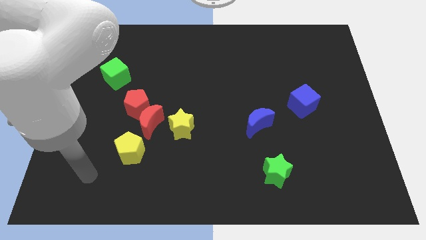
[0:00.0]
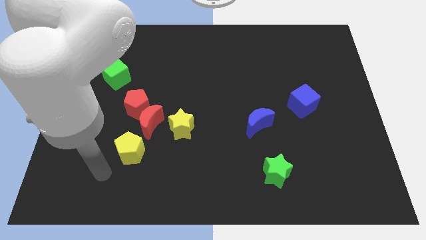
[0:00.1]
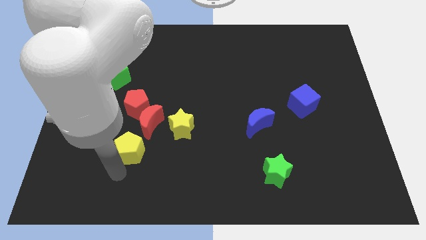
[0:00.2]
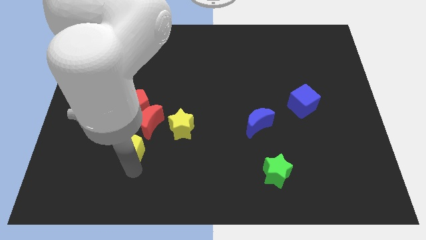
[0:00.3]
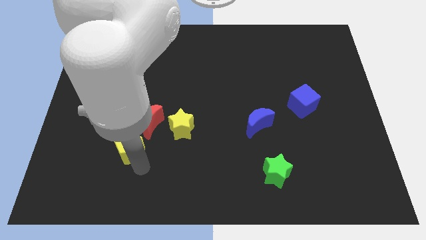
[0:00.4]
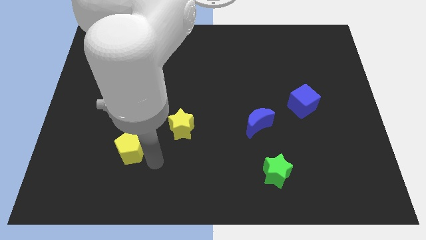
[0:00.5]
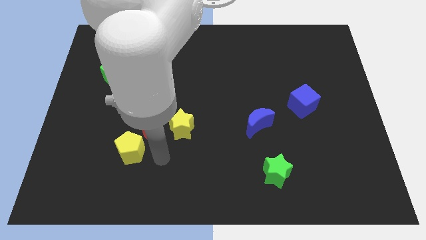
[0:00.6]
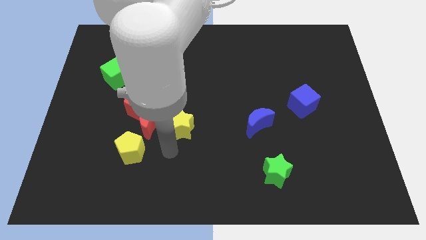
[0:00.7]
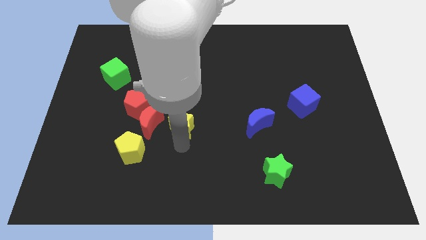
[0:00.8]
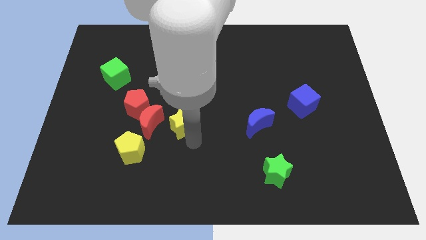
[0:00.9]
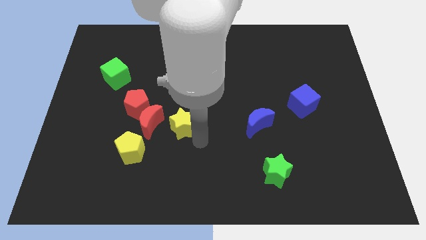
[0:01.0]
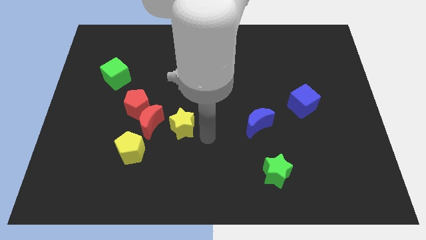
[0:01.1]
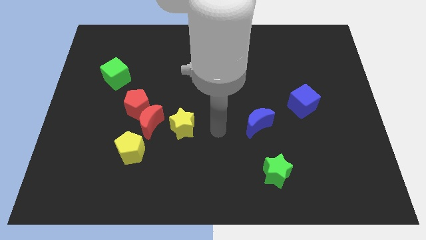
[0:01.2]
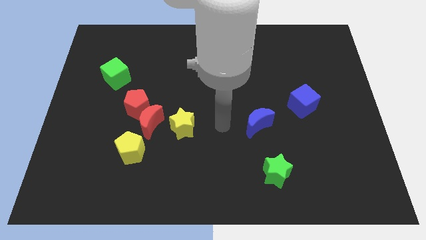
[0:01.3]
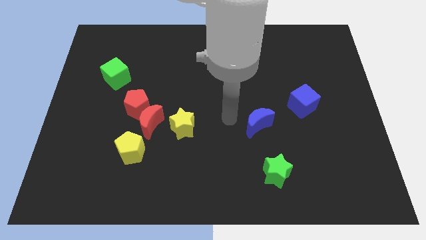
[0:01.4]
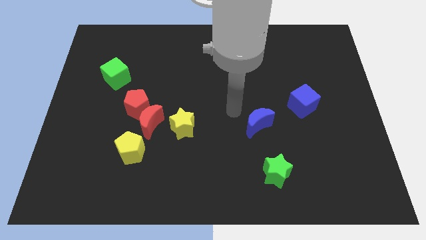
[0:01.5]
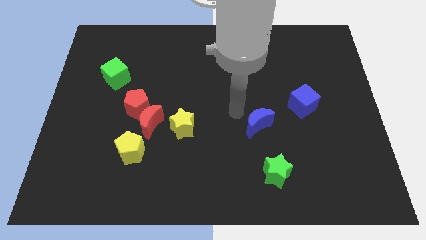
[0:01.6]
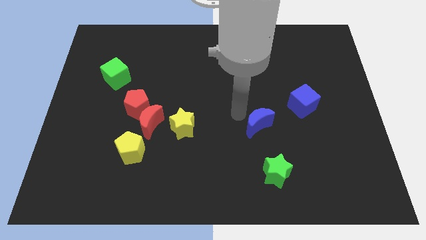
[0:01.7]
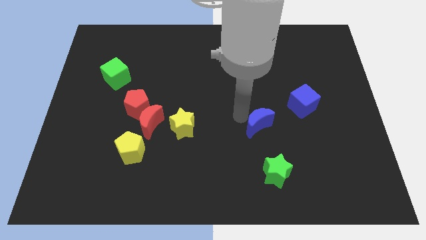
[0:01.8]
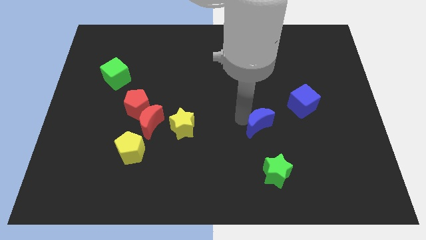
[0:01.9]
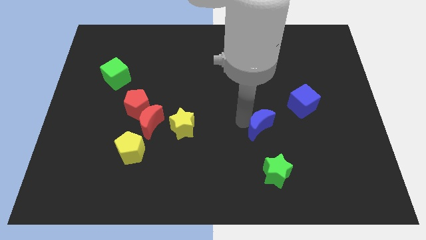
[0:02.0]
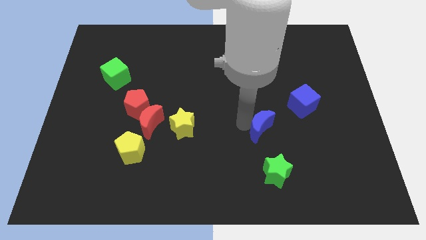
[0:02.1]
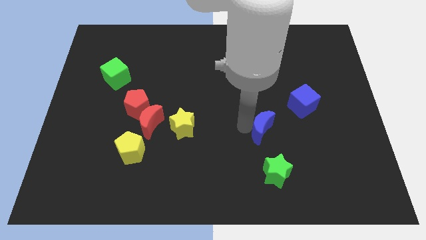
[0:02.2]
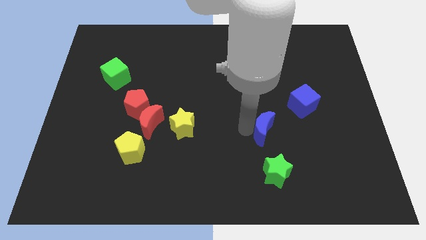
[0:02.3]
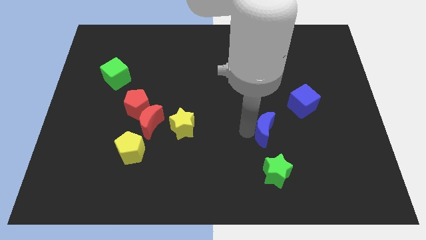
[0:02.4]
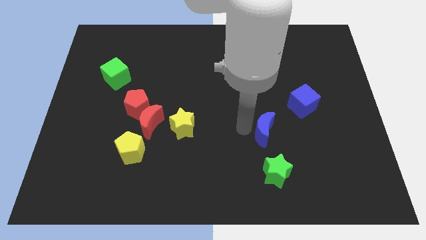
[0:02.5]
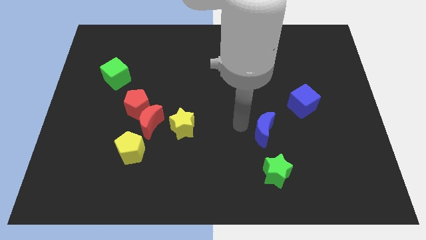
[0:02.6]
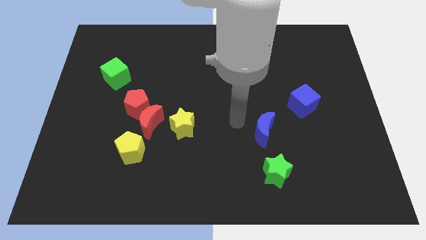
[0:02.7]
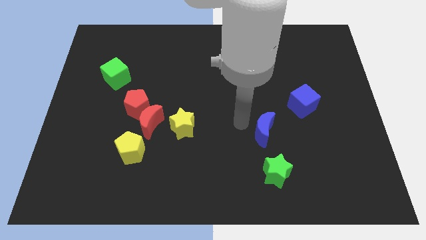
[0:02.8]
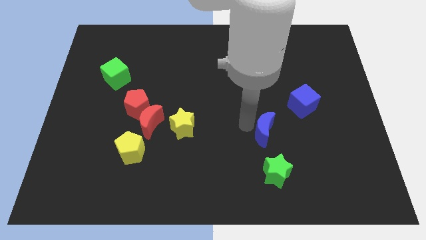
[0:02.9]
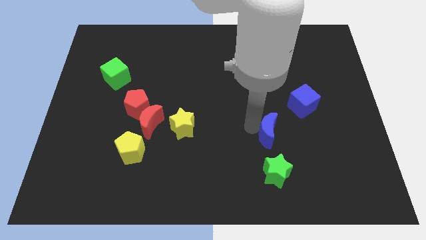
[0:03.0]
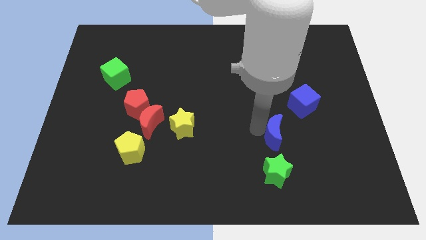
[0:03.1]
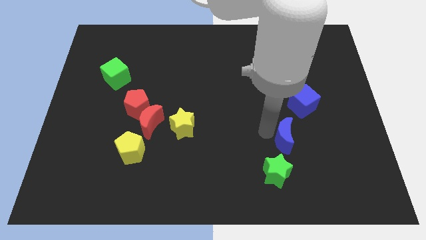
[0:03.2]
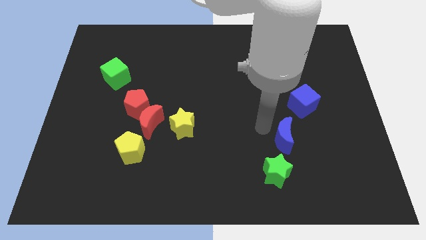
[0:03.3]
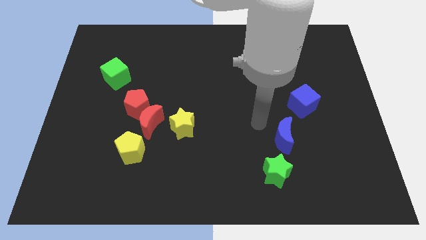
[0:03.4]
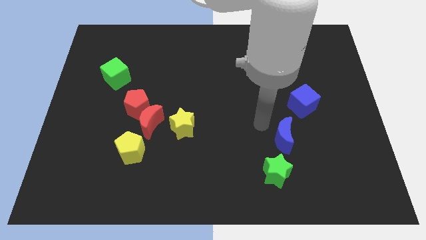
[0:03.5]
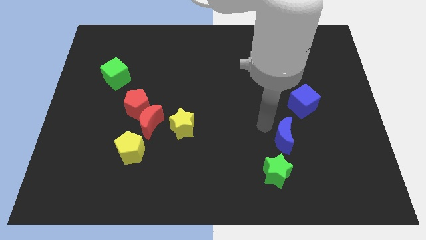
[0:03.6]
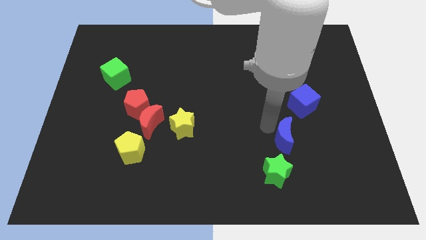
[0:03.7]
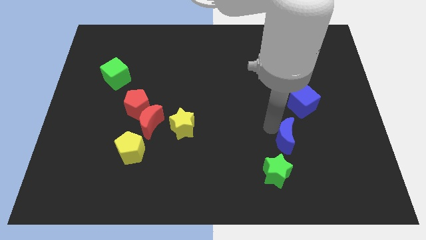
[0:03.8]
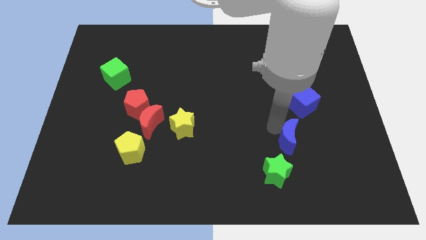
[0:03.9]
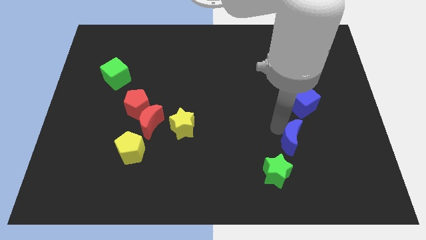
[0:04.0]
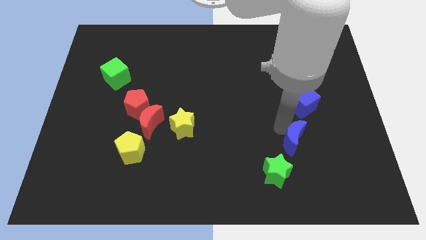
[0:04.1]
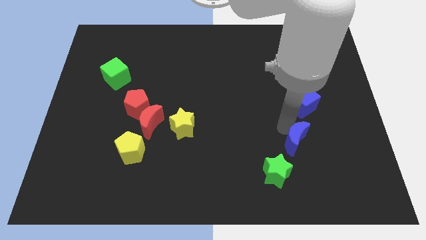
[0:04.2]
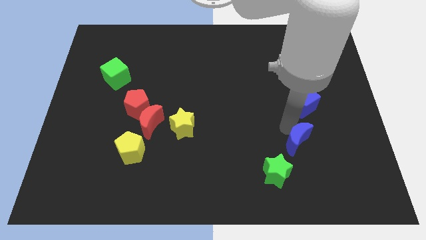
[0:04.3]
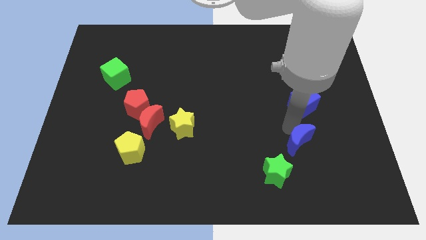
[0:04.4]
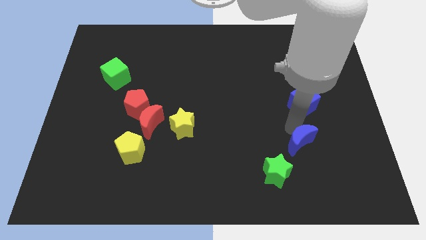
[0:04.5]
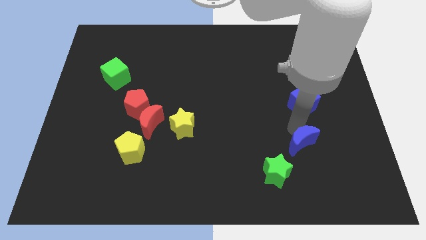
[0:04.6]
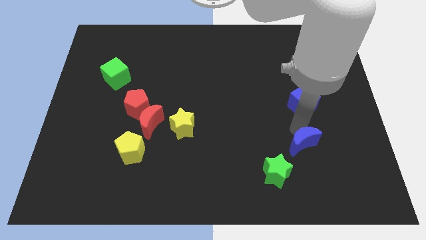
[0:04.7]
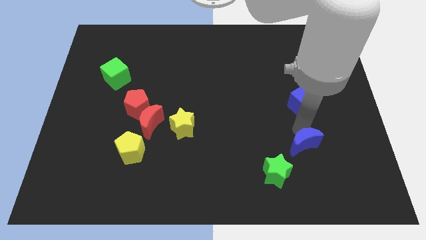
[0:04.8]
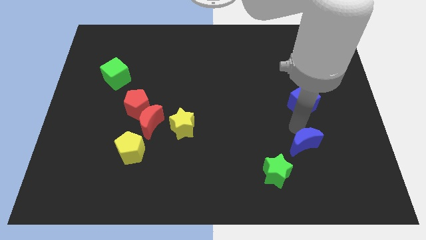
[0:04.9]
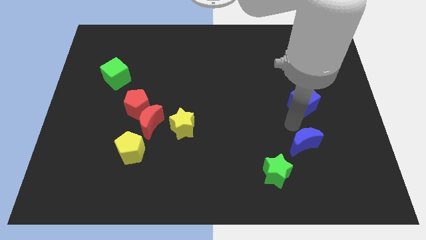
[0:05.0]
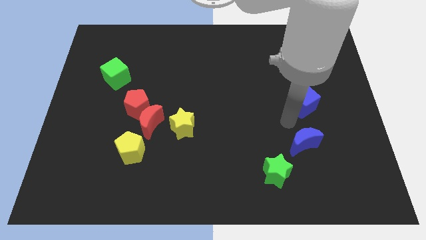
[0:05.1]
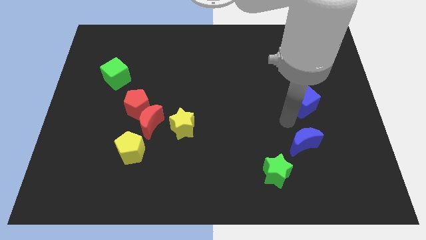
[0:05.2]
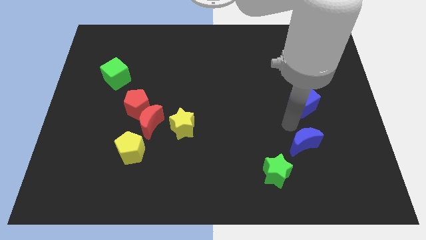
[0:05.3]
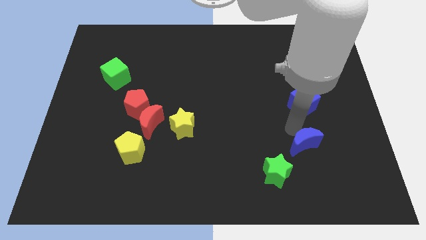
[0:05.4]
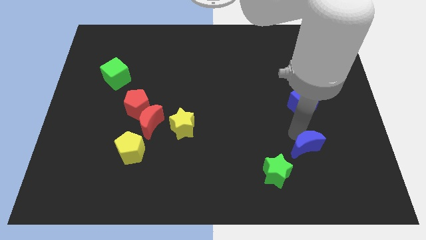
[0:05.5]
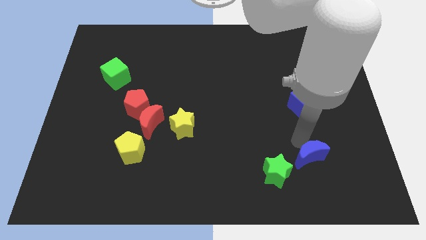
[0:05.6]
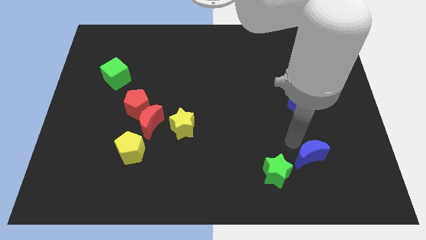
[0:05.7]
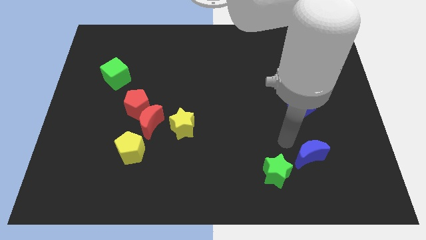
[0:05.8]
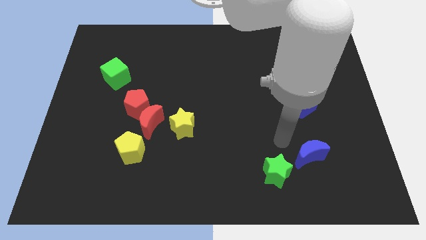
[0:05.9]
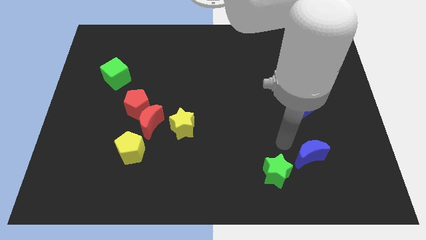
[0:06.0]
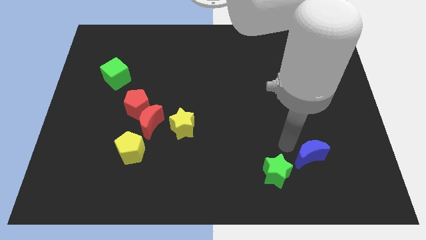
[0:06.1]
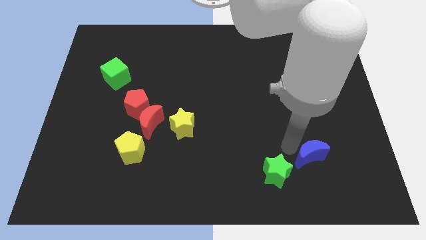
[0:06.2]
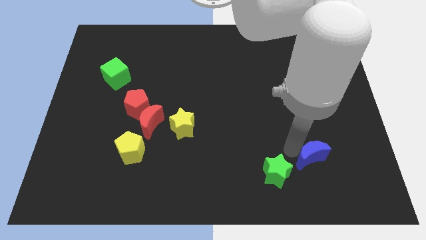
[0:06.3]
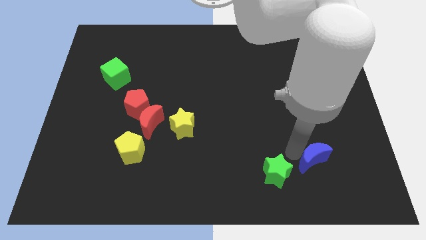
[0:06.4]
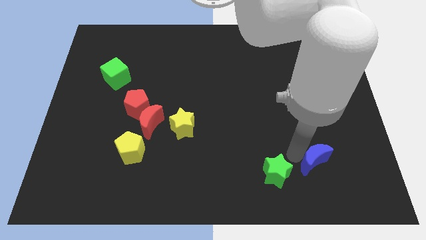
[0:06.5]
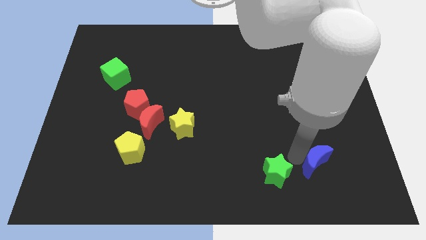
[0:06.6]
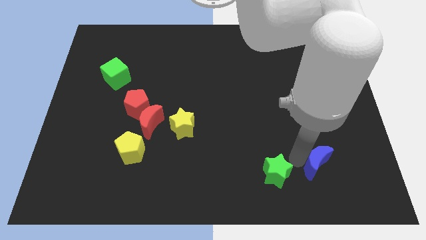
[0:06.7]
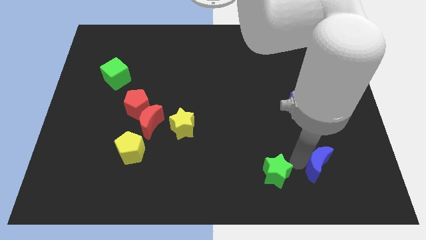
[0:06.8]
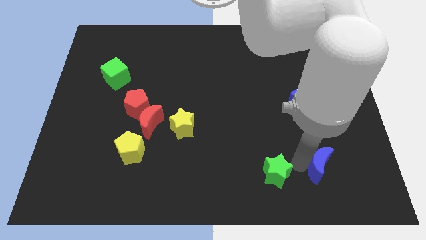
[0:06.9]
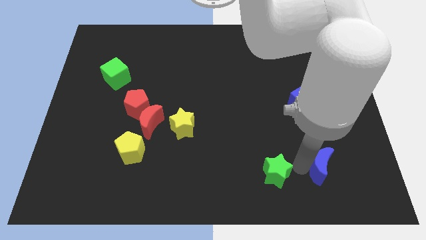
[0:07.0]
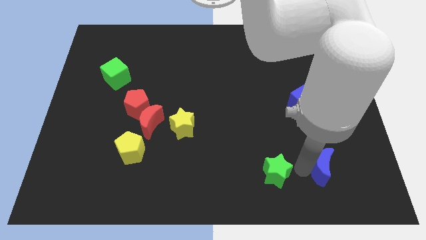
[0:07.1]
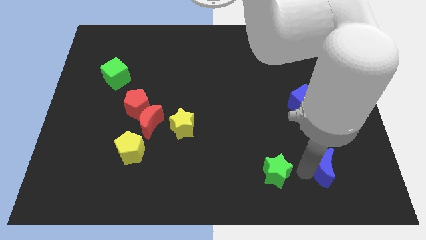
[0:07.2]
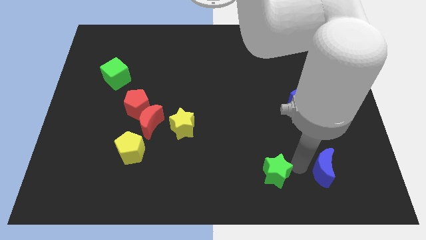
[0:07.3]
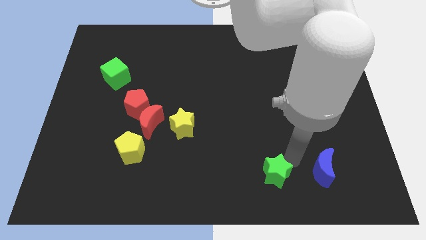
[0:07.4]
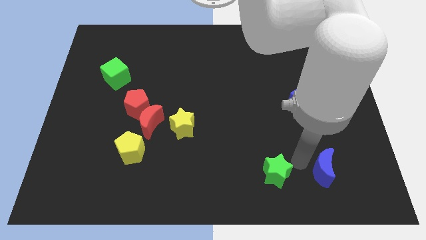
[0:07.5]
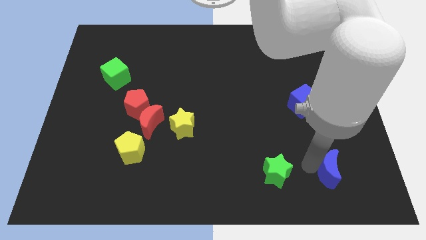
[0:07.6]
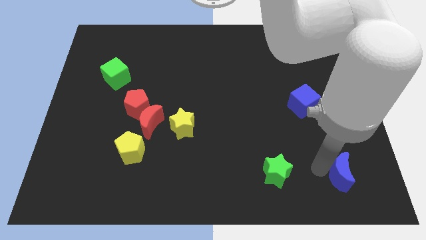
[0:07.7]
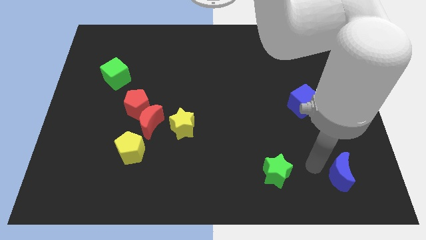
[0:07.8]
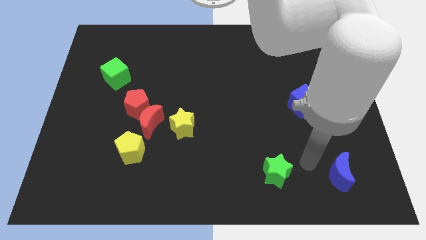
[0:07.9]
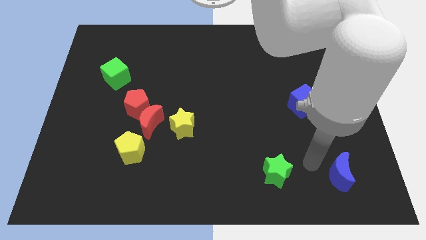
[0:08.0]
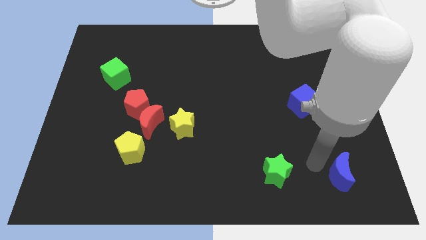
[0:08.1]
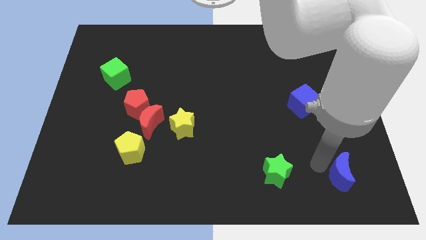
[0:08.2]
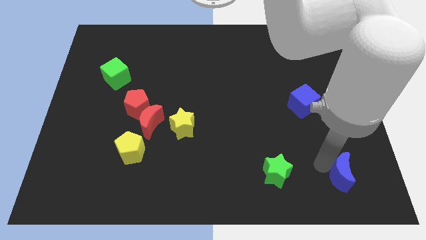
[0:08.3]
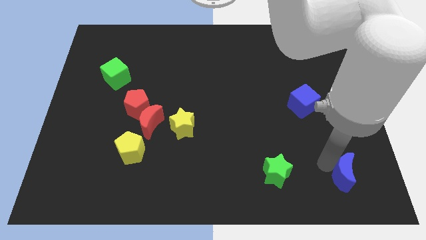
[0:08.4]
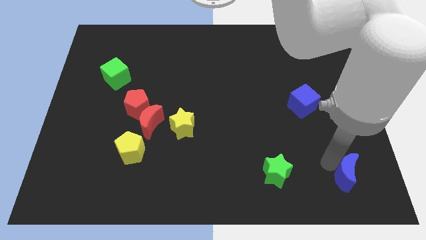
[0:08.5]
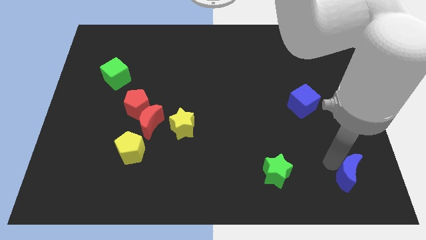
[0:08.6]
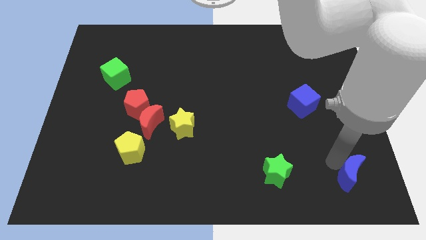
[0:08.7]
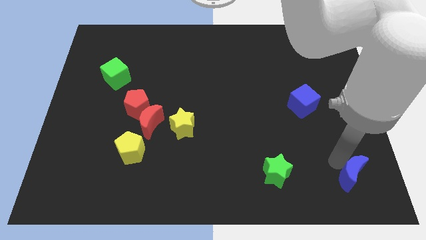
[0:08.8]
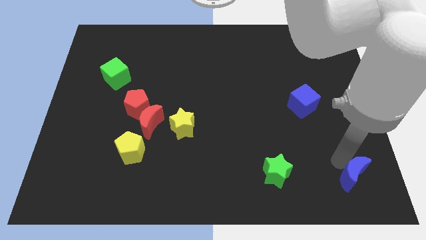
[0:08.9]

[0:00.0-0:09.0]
put the blue moon to the bottom right of the board
